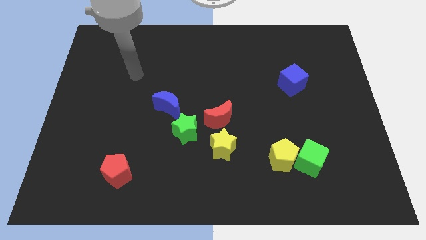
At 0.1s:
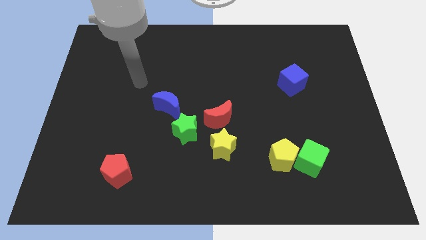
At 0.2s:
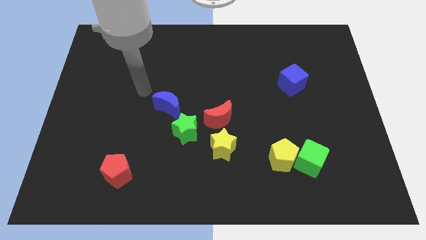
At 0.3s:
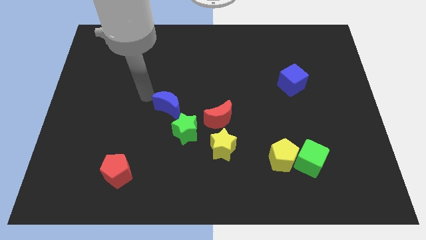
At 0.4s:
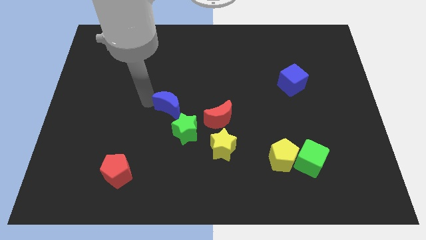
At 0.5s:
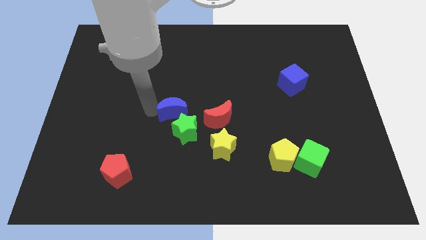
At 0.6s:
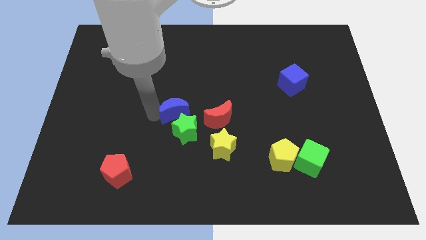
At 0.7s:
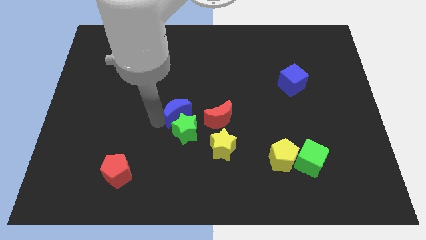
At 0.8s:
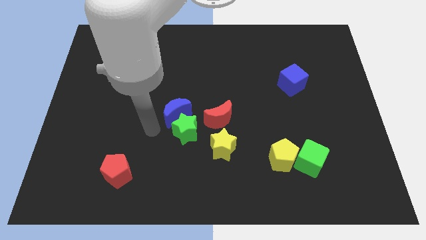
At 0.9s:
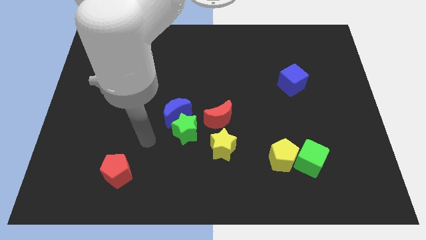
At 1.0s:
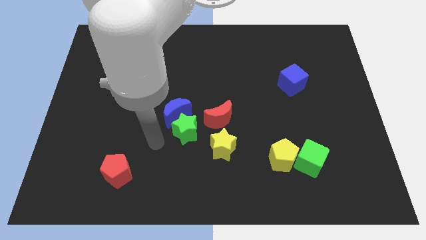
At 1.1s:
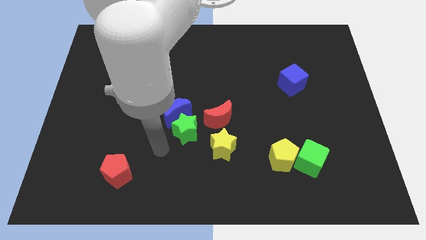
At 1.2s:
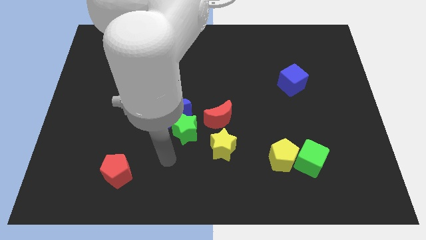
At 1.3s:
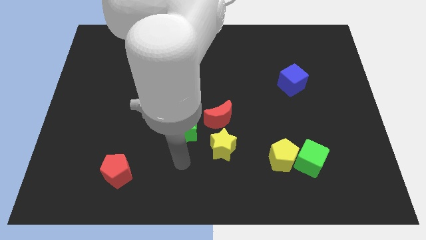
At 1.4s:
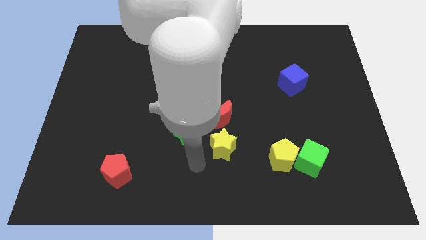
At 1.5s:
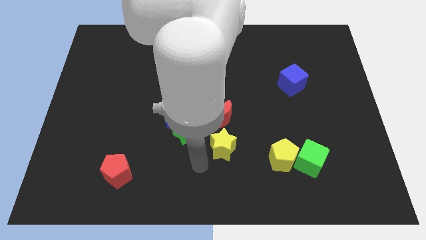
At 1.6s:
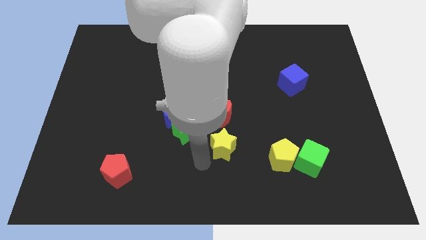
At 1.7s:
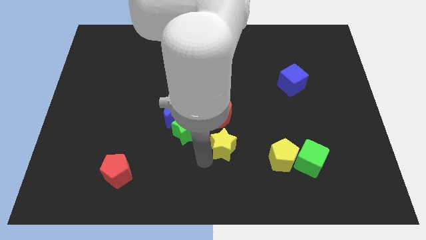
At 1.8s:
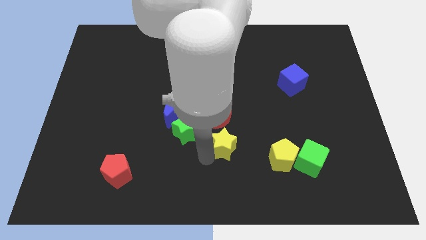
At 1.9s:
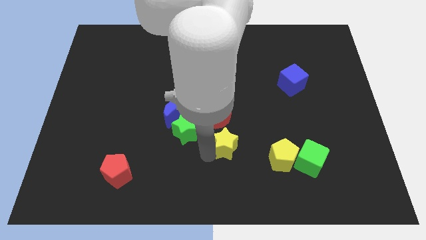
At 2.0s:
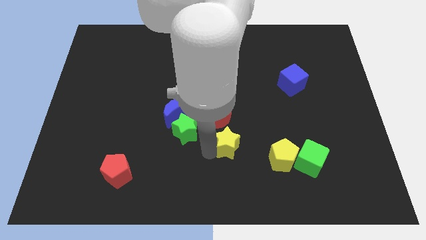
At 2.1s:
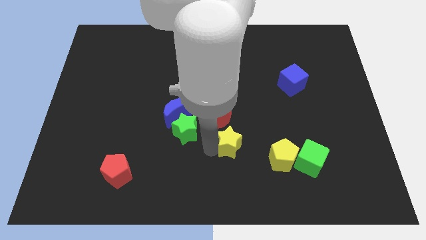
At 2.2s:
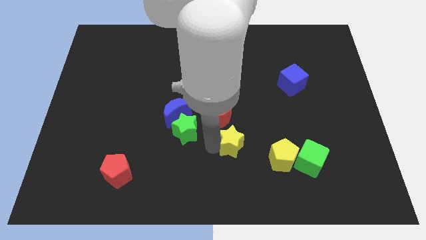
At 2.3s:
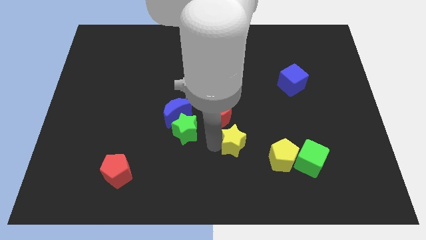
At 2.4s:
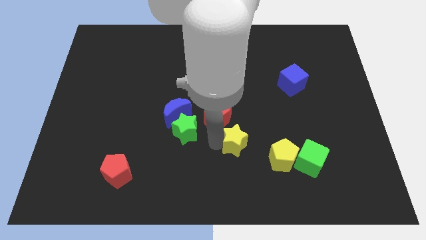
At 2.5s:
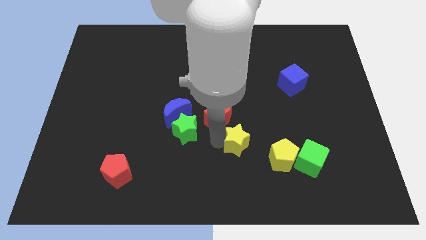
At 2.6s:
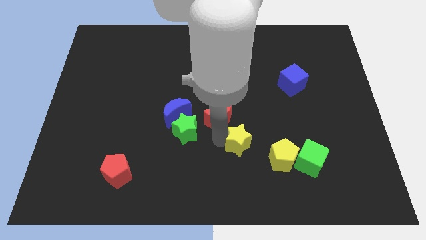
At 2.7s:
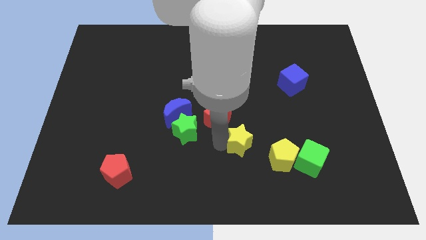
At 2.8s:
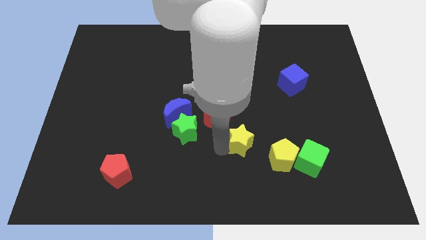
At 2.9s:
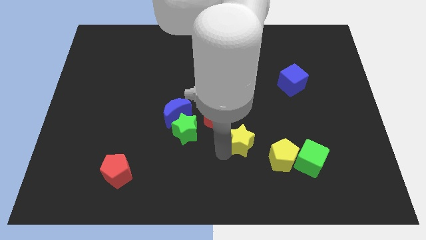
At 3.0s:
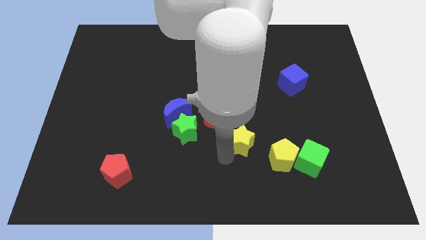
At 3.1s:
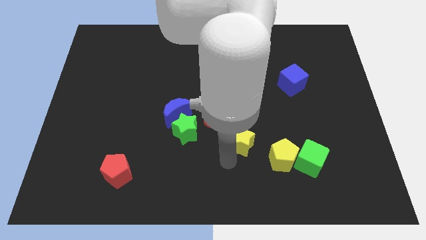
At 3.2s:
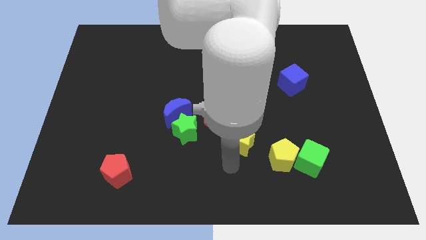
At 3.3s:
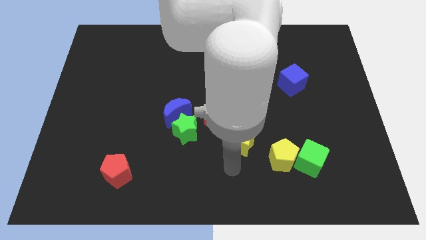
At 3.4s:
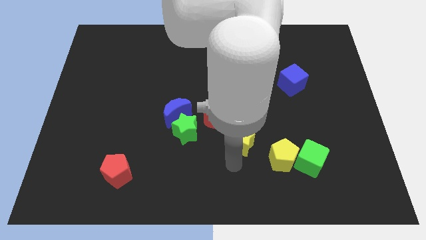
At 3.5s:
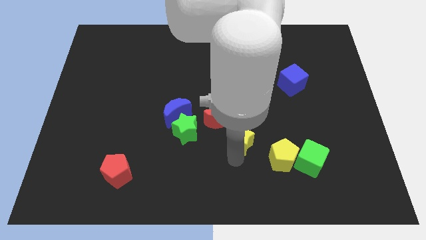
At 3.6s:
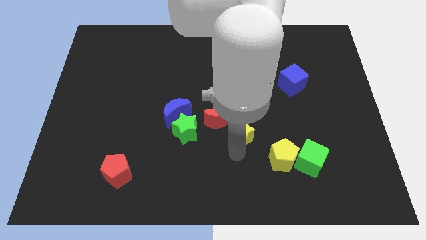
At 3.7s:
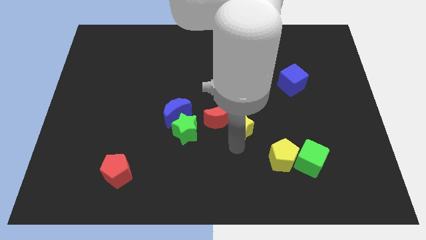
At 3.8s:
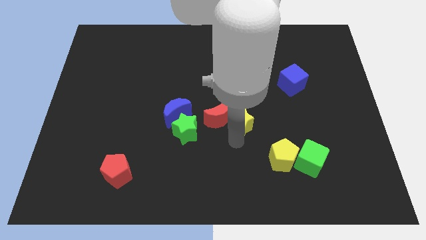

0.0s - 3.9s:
move the yellow star a little up and to the right

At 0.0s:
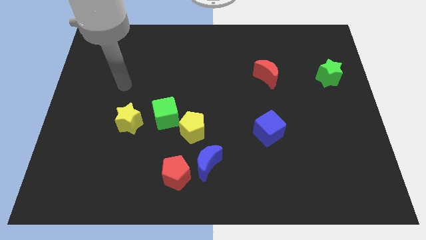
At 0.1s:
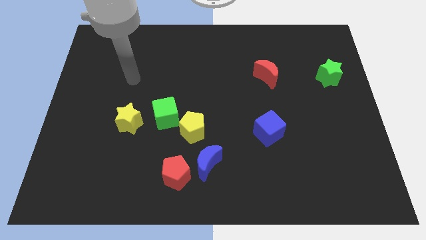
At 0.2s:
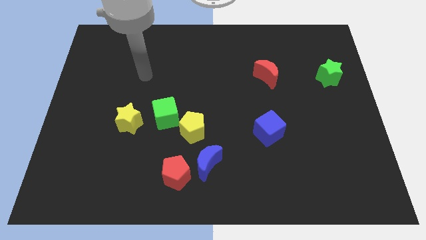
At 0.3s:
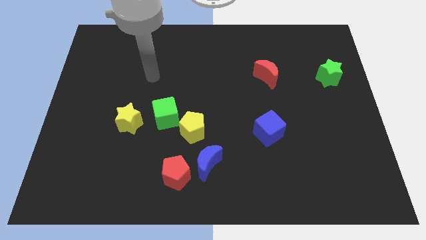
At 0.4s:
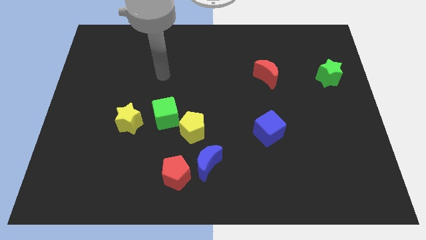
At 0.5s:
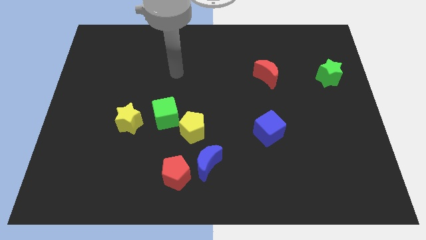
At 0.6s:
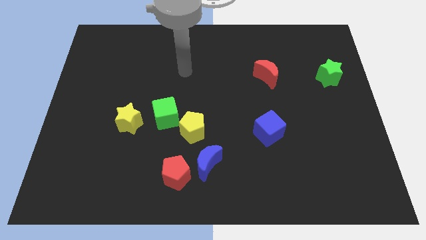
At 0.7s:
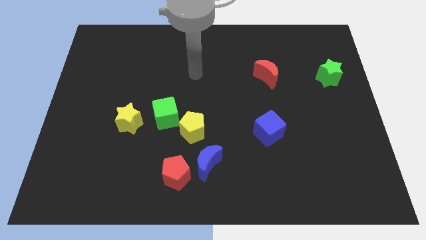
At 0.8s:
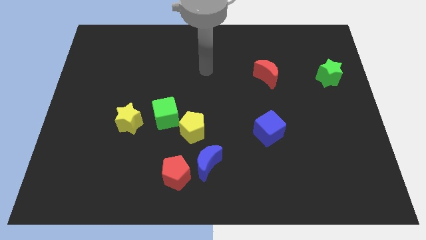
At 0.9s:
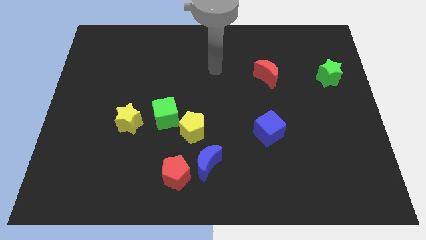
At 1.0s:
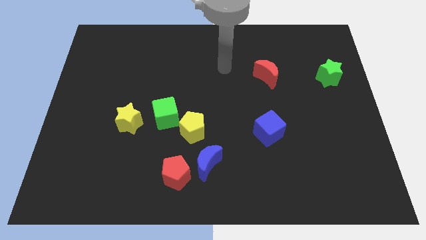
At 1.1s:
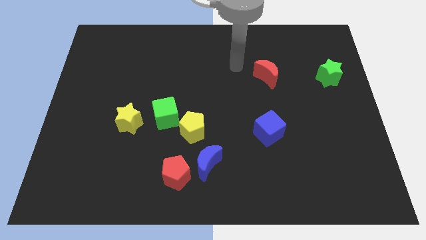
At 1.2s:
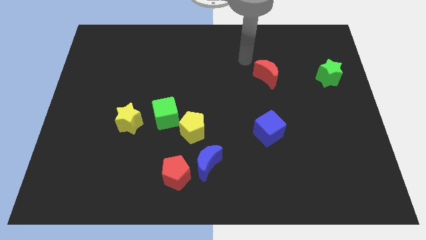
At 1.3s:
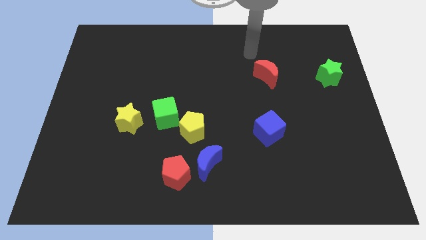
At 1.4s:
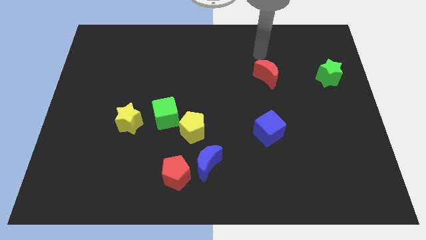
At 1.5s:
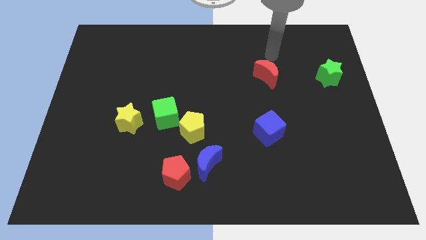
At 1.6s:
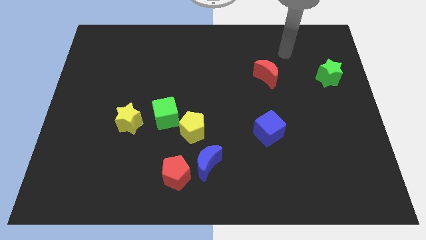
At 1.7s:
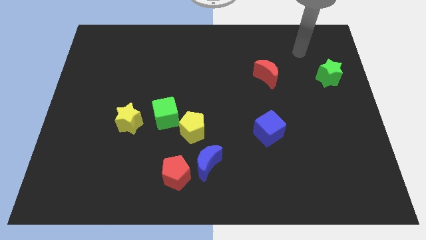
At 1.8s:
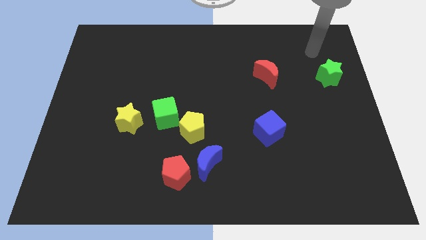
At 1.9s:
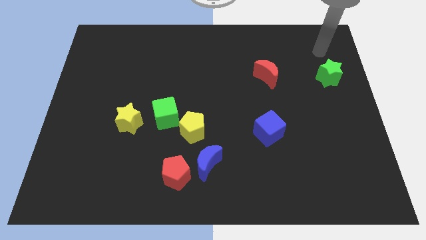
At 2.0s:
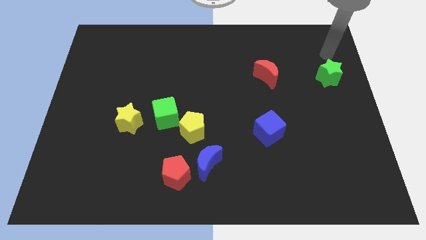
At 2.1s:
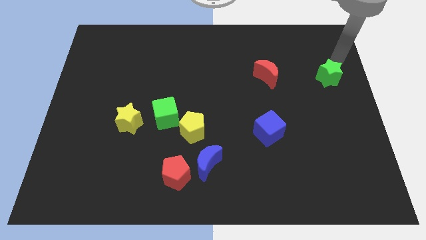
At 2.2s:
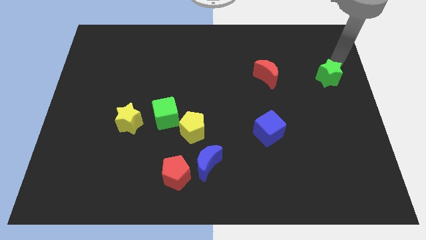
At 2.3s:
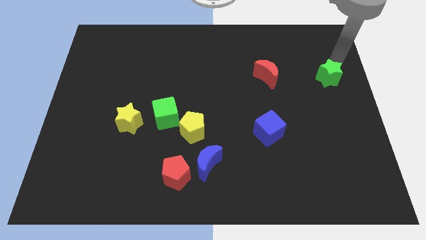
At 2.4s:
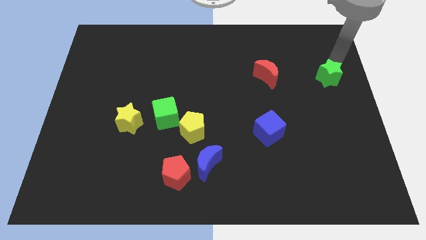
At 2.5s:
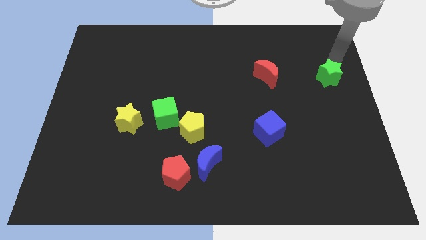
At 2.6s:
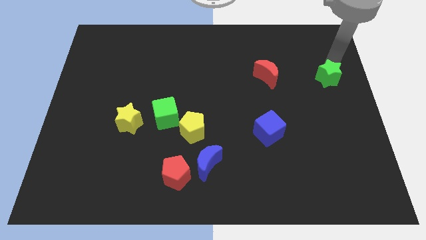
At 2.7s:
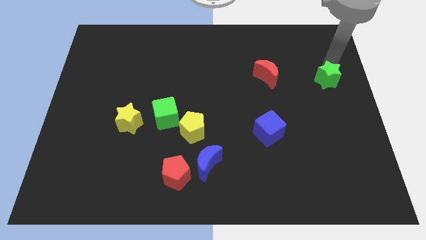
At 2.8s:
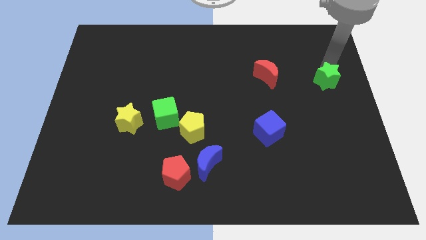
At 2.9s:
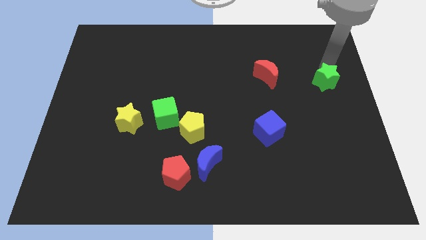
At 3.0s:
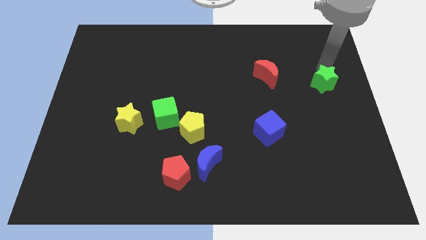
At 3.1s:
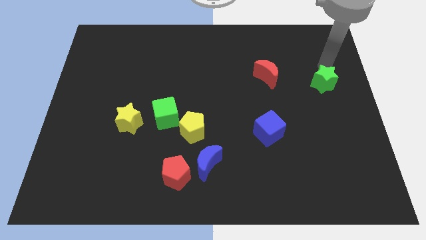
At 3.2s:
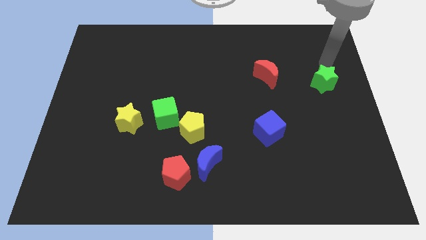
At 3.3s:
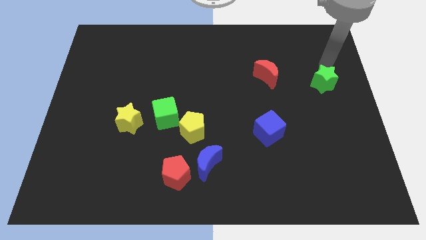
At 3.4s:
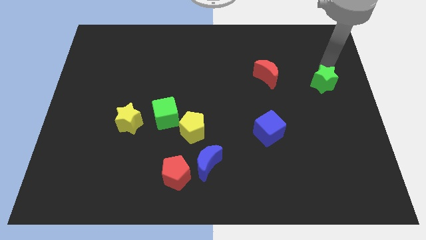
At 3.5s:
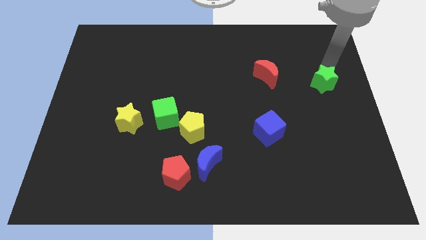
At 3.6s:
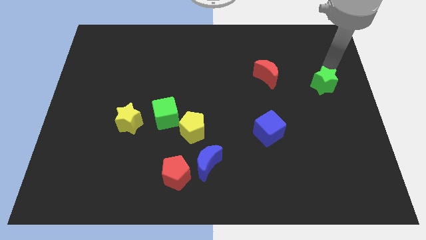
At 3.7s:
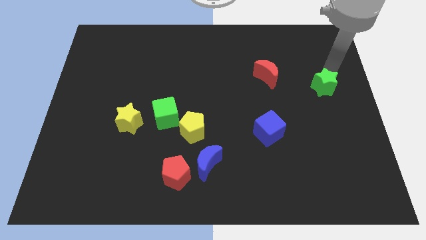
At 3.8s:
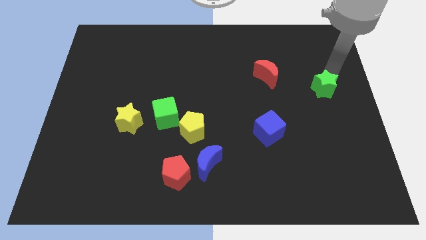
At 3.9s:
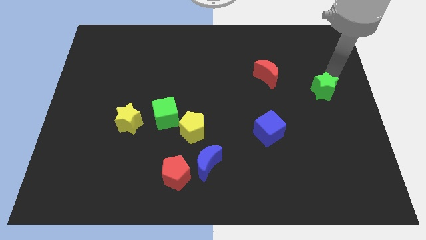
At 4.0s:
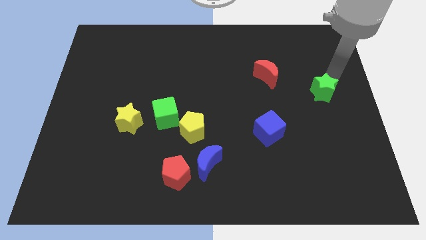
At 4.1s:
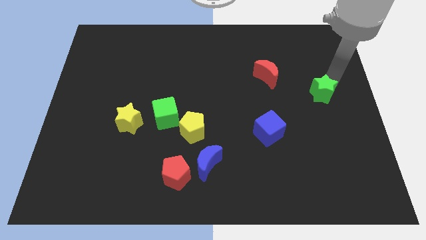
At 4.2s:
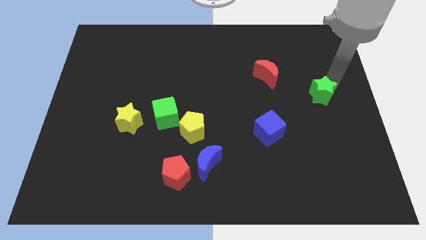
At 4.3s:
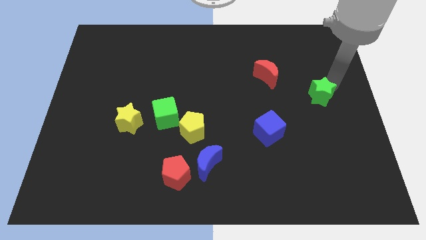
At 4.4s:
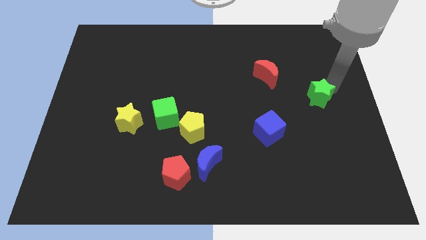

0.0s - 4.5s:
slide the green star down and left diagonally a little bit
